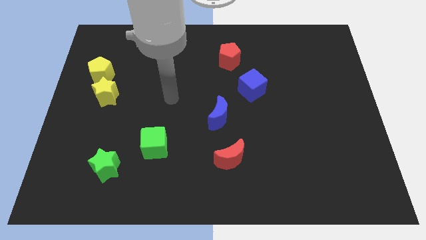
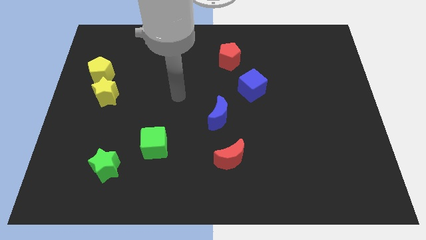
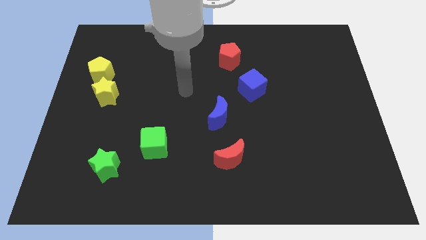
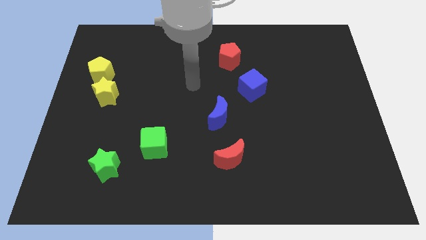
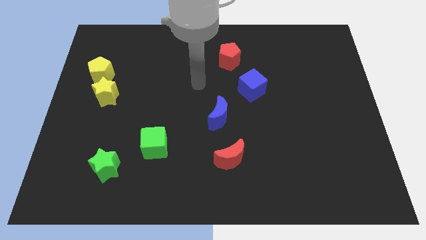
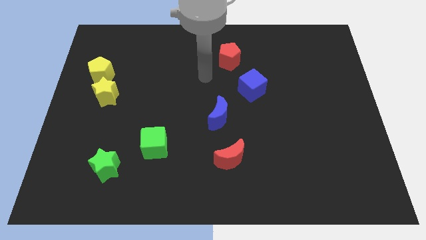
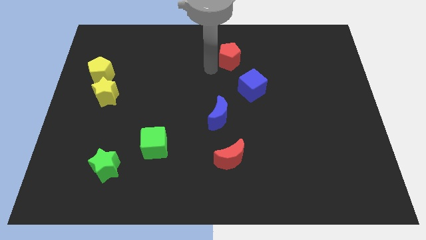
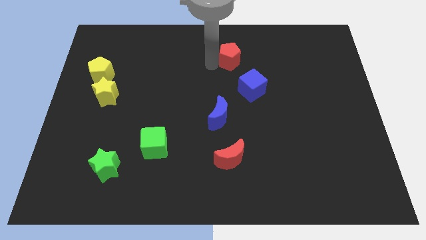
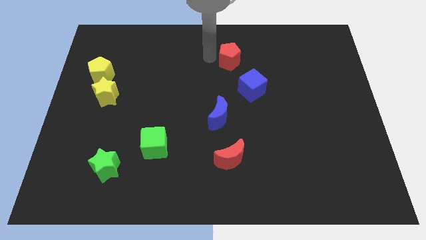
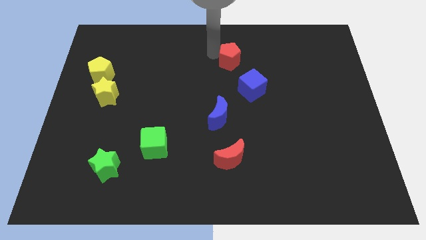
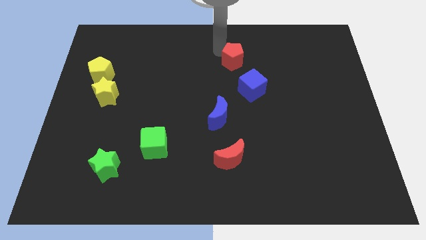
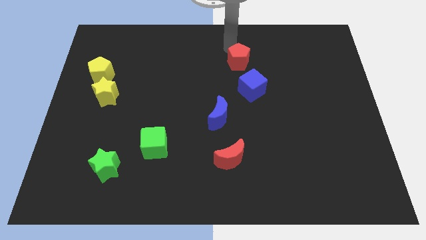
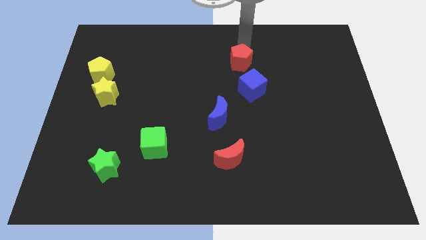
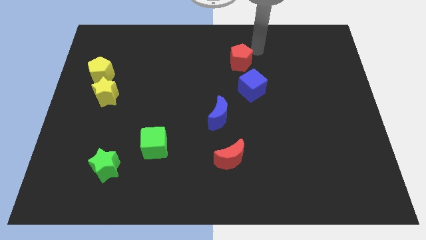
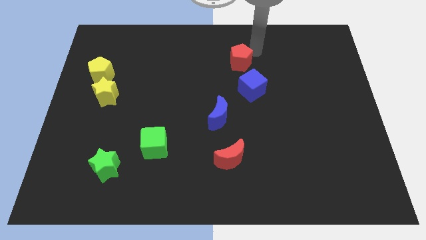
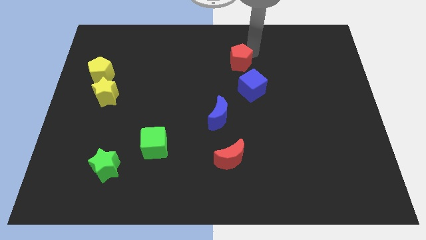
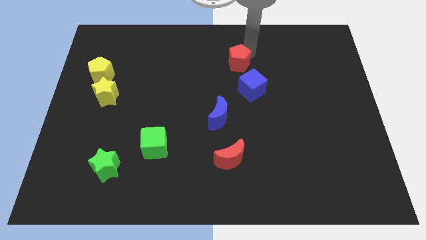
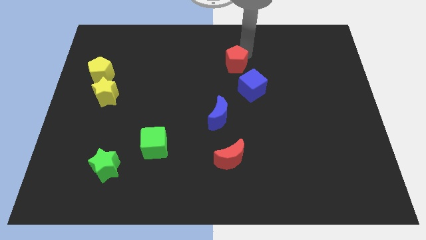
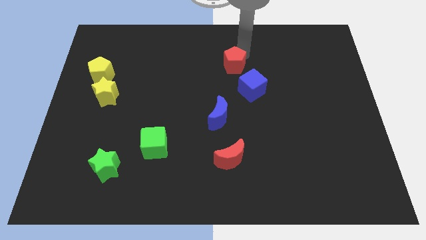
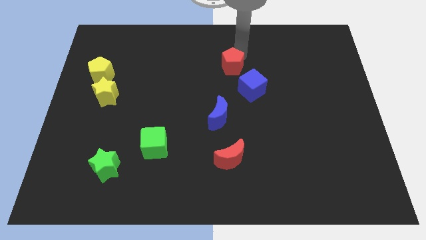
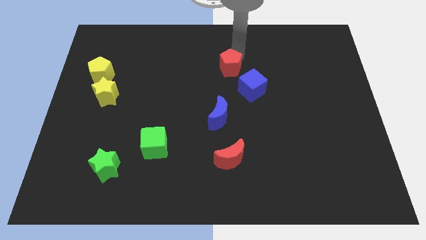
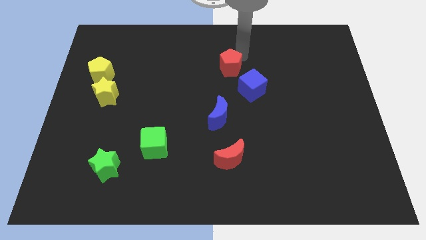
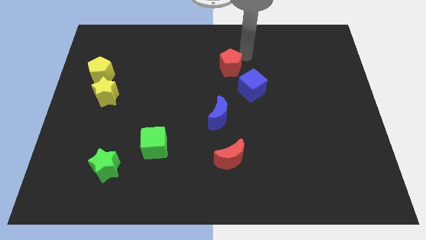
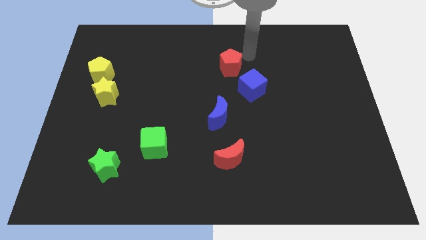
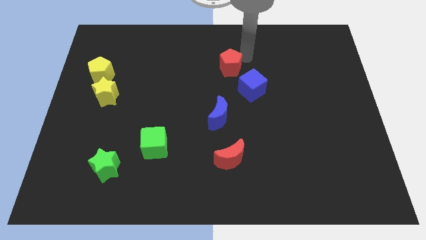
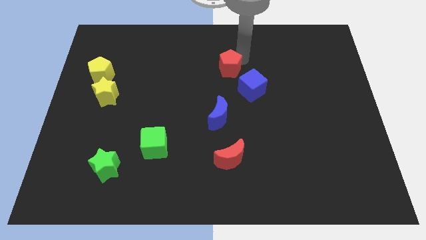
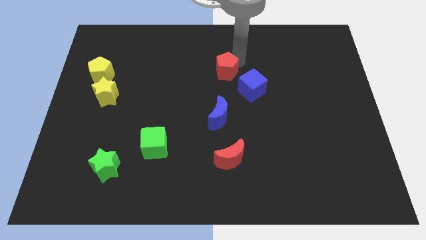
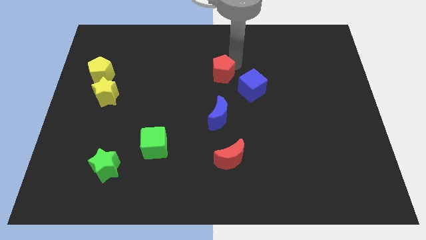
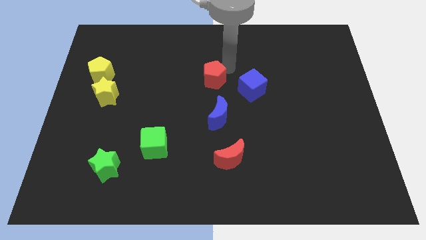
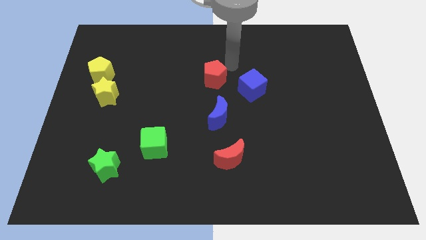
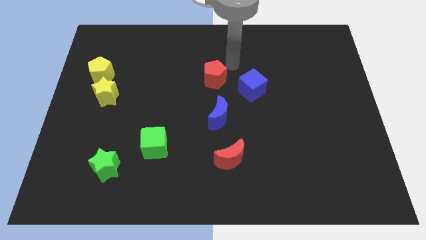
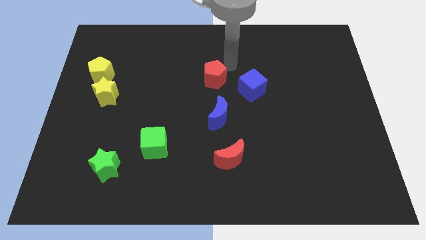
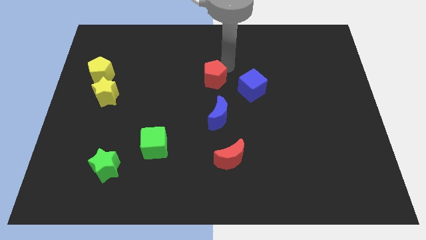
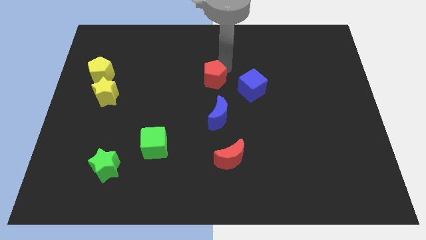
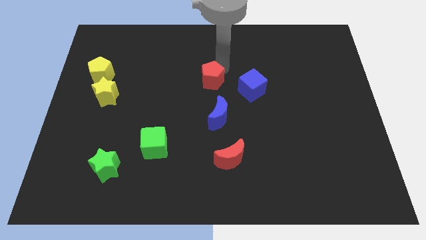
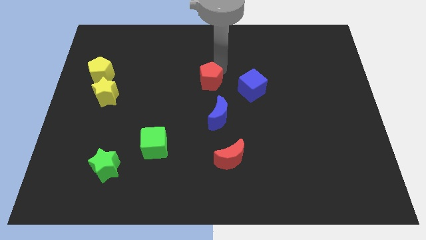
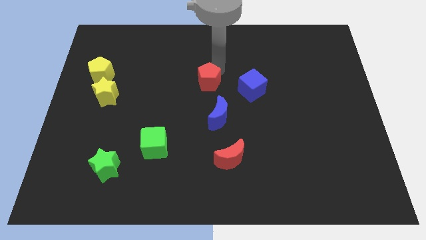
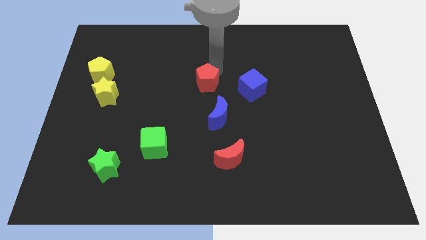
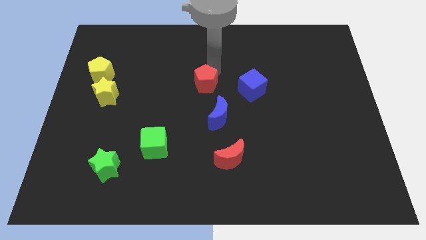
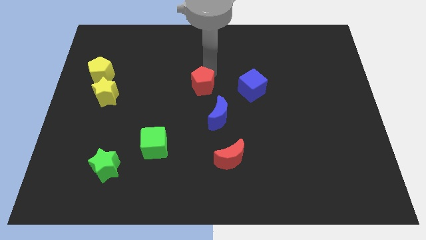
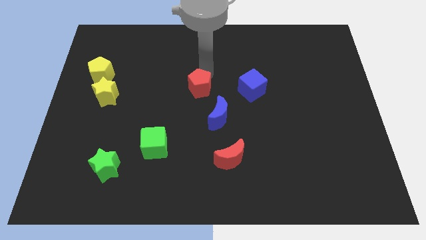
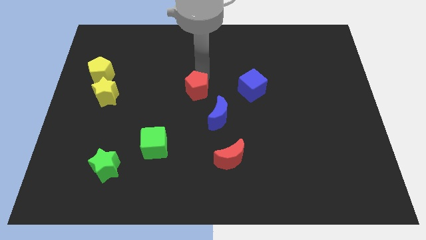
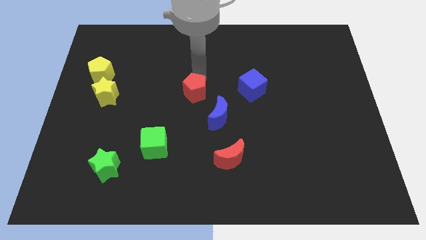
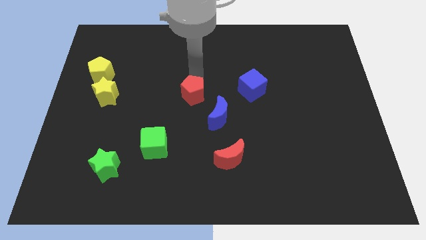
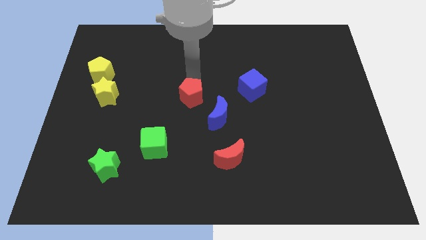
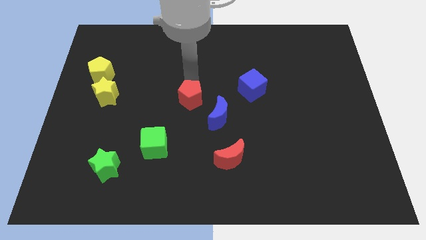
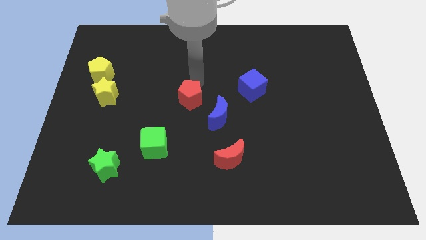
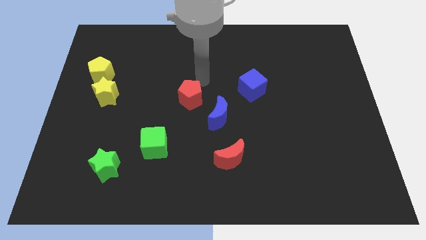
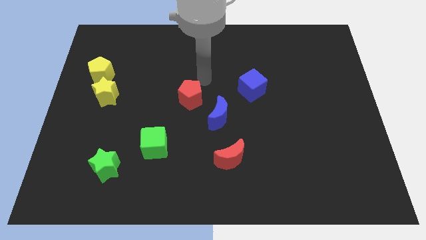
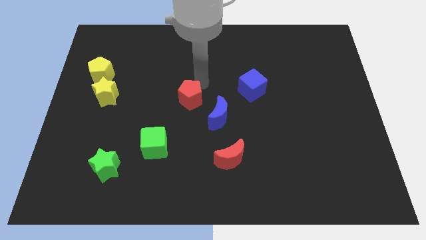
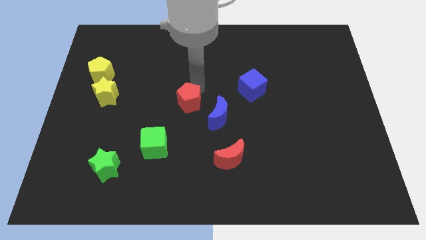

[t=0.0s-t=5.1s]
push the red pentagon to the left of the blue moon

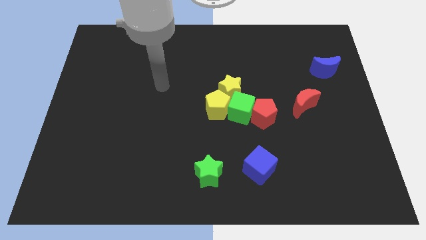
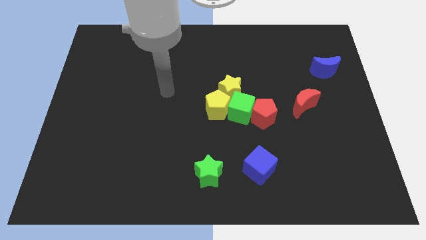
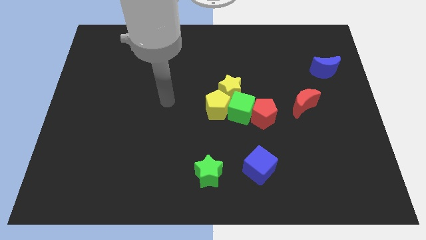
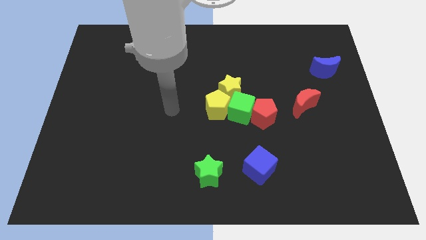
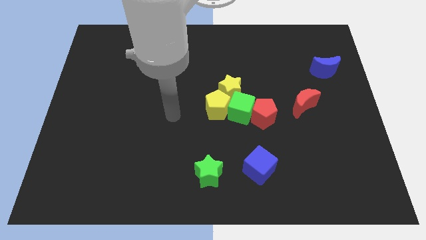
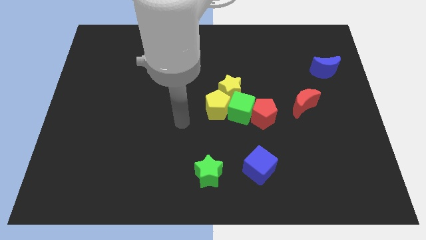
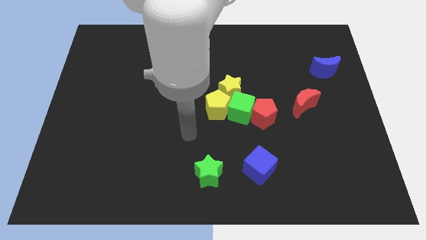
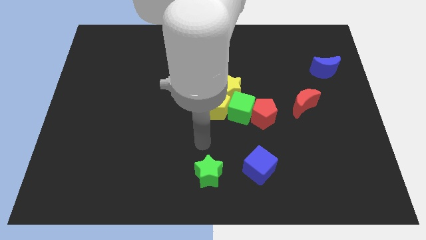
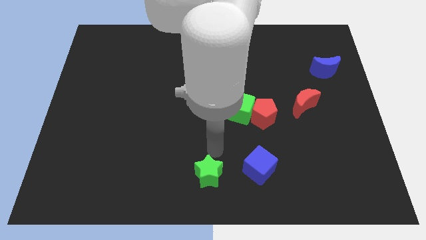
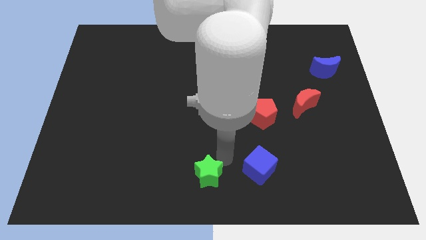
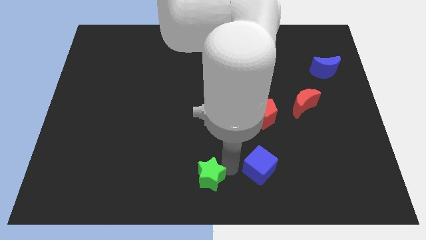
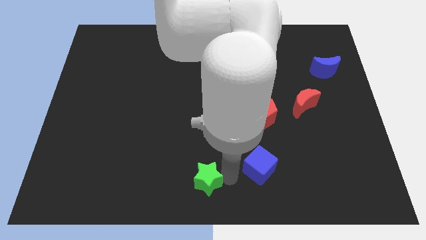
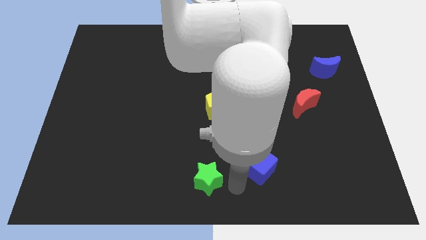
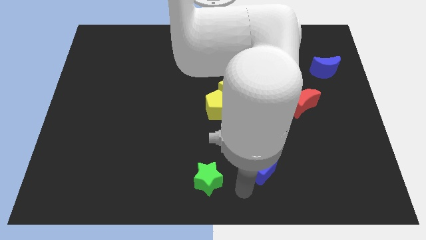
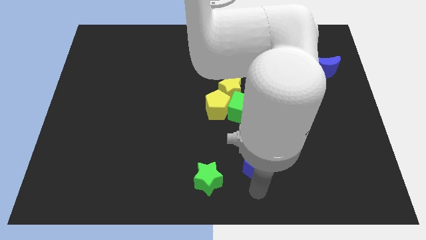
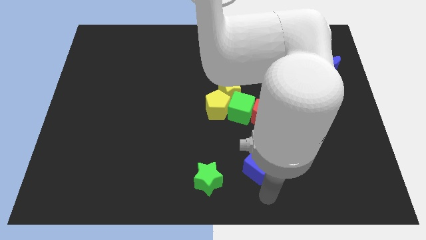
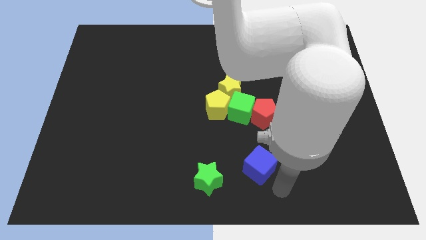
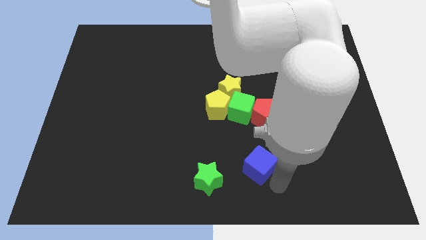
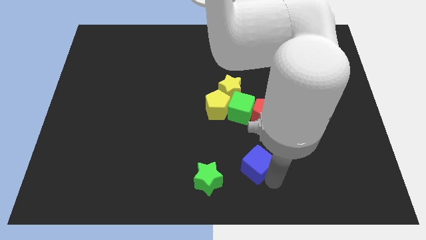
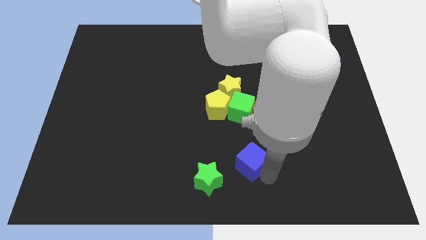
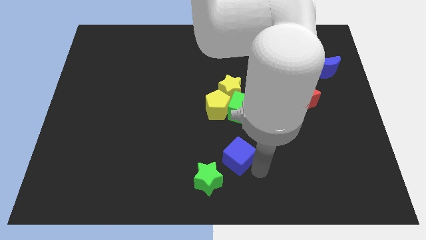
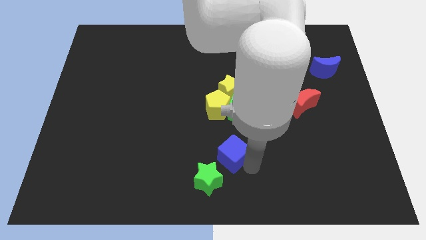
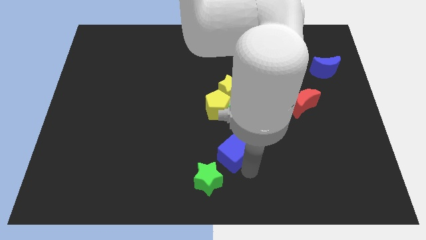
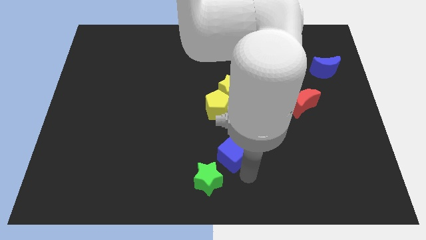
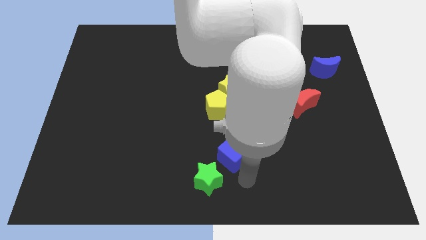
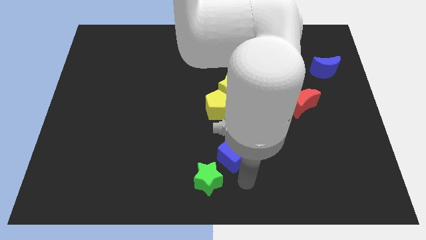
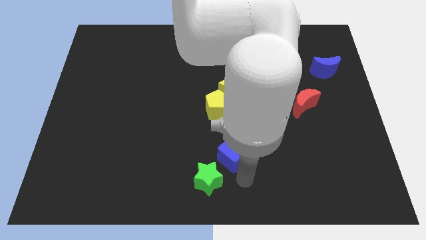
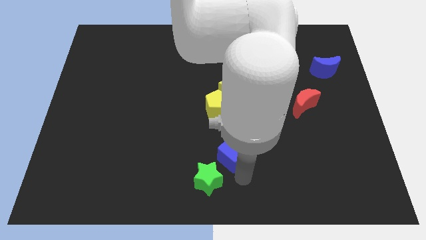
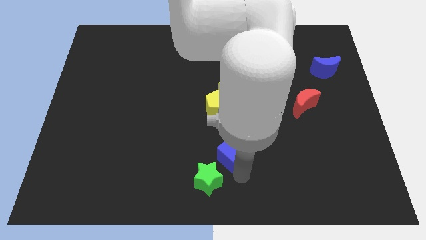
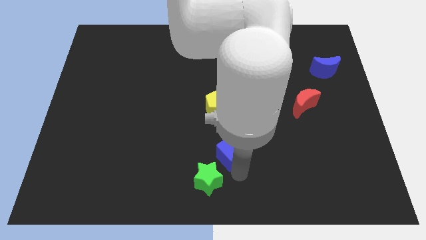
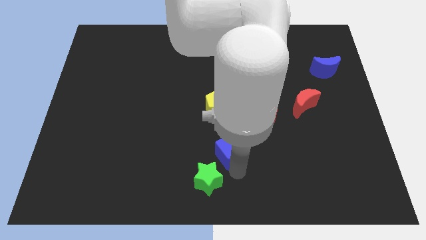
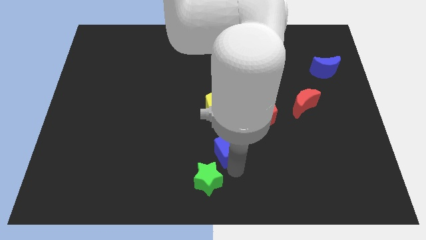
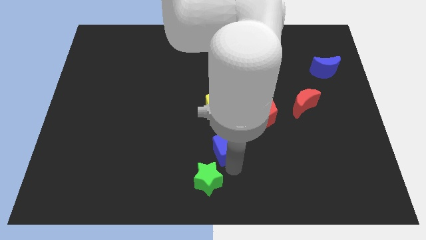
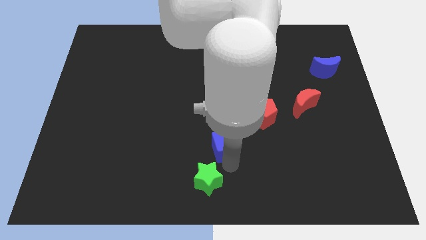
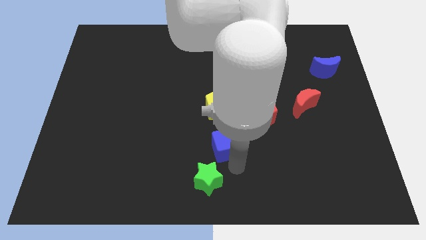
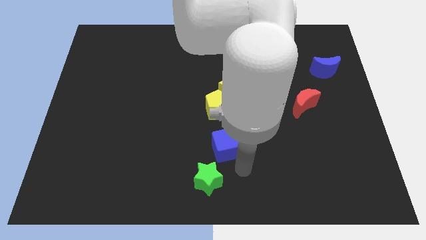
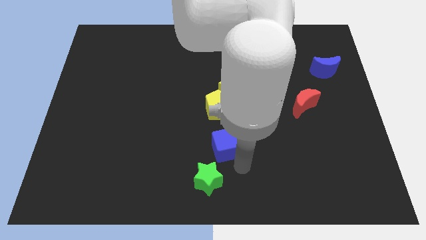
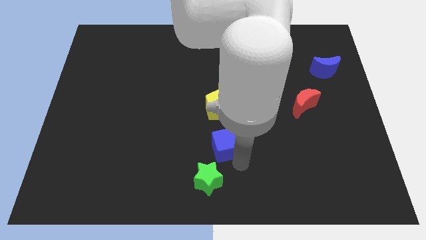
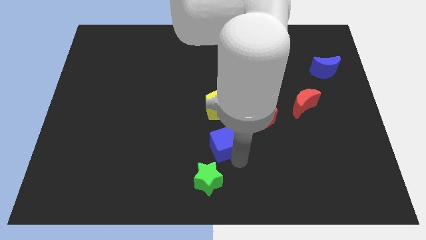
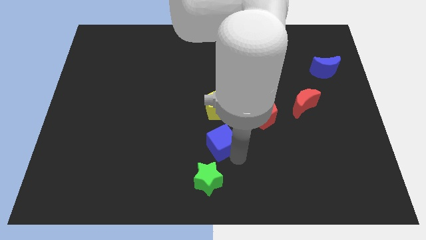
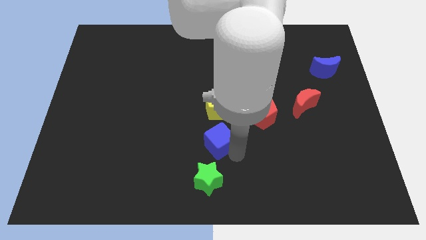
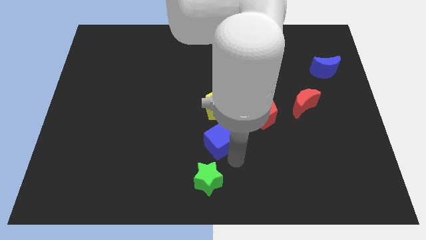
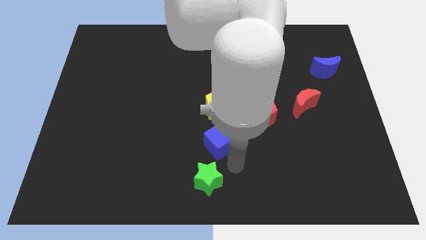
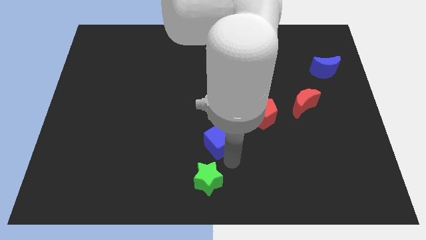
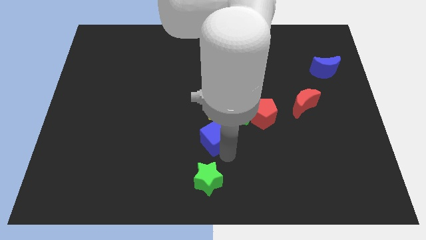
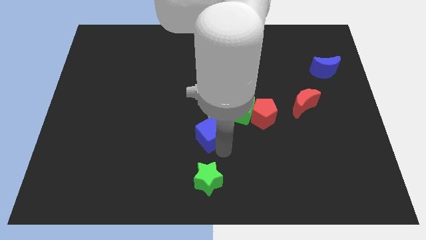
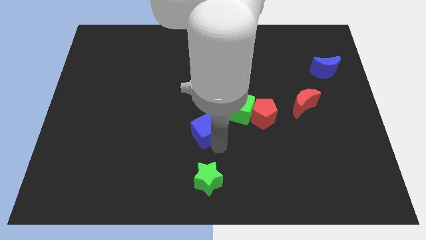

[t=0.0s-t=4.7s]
move the blue cube to the left of the red pentagon
